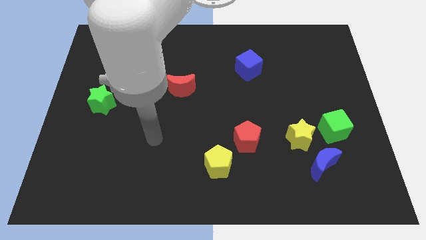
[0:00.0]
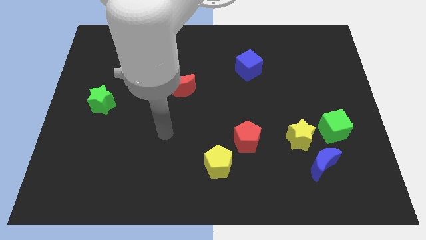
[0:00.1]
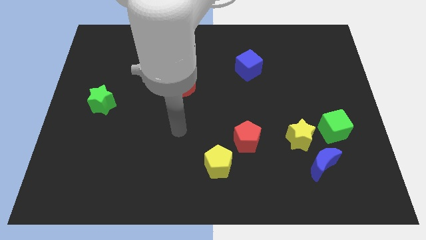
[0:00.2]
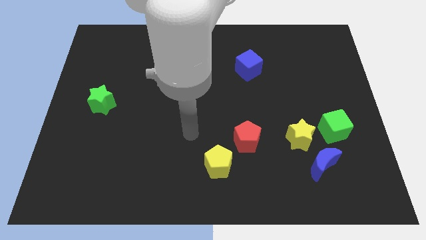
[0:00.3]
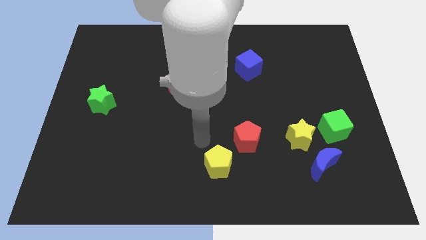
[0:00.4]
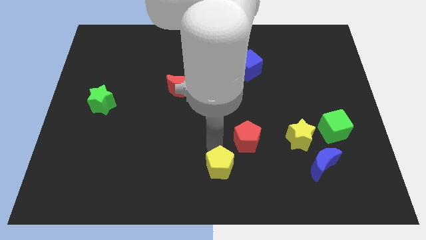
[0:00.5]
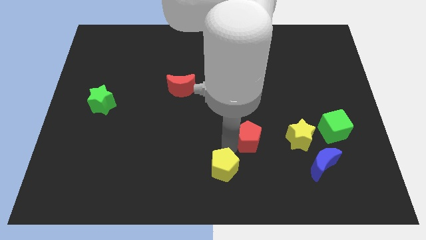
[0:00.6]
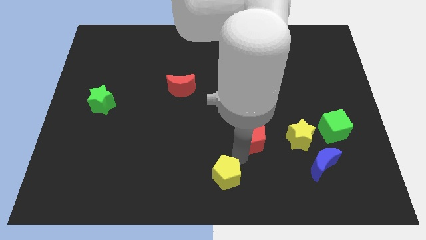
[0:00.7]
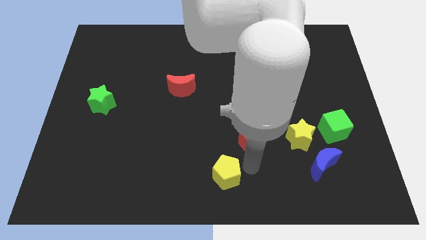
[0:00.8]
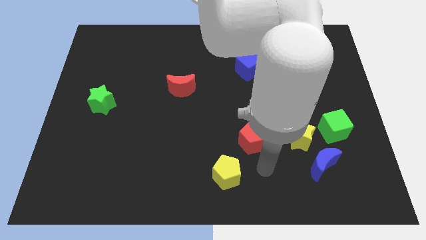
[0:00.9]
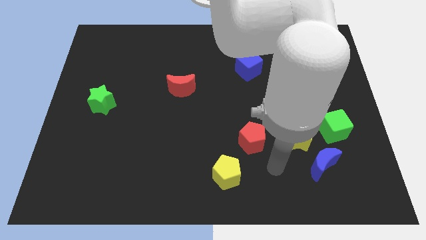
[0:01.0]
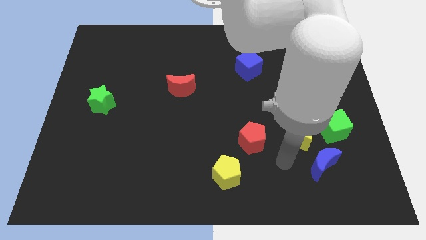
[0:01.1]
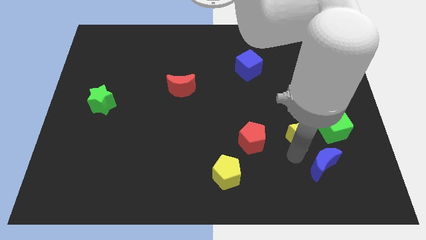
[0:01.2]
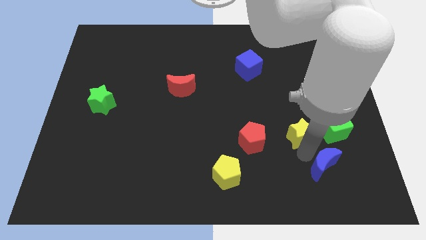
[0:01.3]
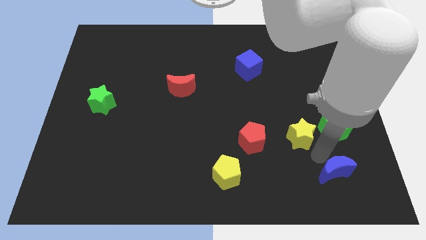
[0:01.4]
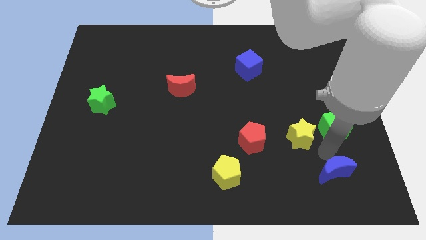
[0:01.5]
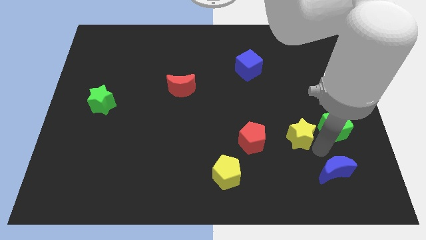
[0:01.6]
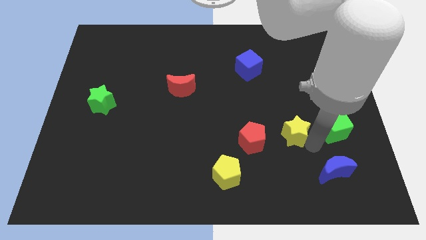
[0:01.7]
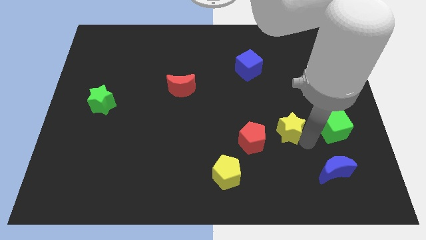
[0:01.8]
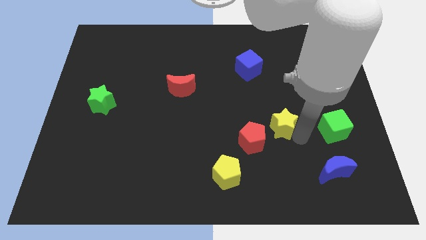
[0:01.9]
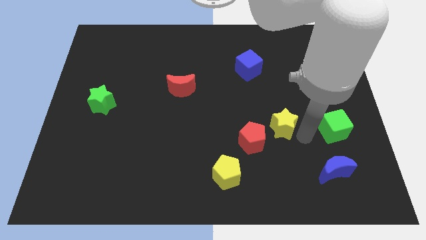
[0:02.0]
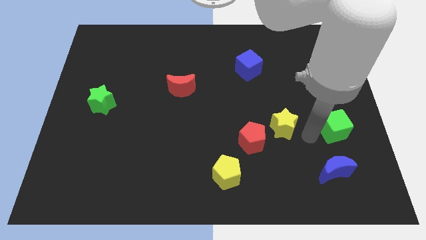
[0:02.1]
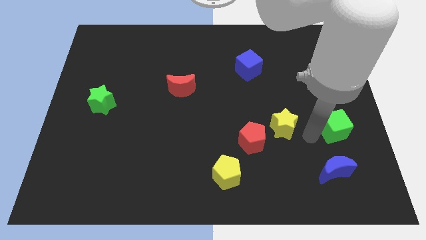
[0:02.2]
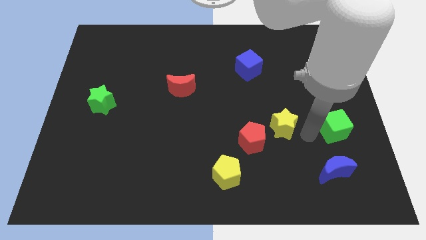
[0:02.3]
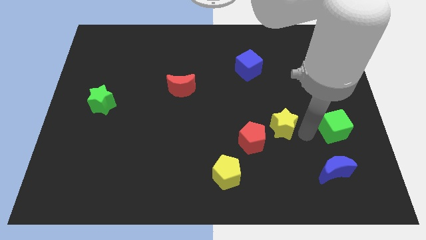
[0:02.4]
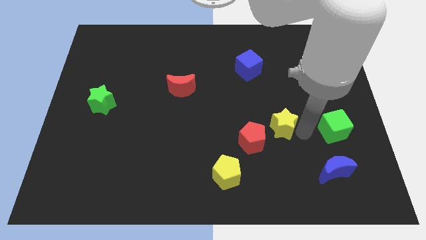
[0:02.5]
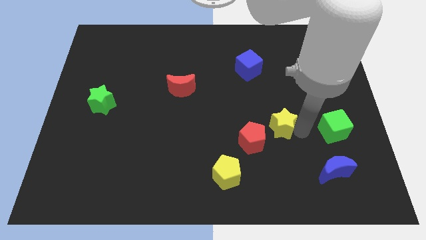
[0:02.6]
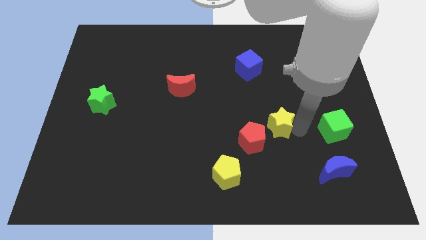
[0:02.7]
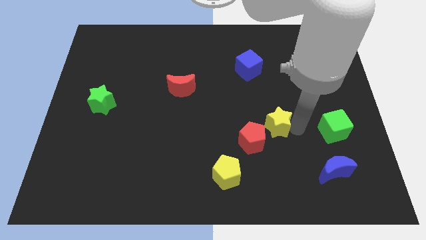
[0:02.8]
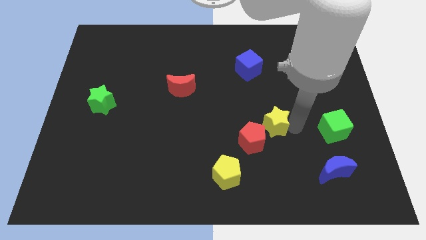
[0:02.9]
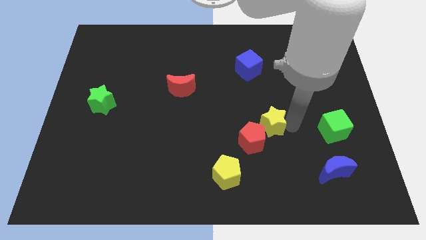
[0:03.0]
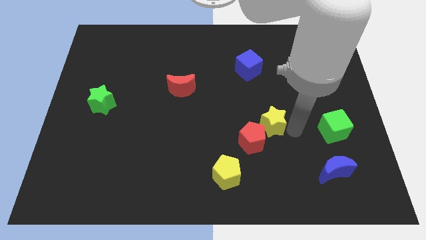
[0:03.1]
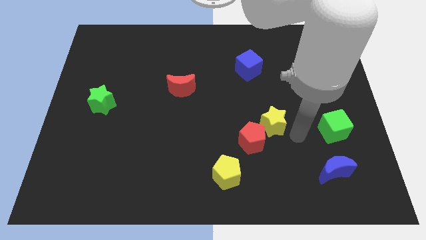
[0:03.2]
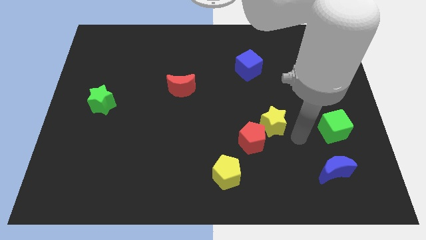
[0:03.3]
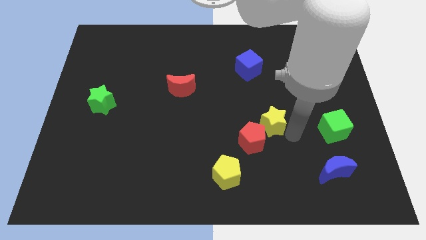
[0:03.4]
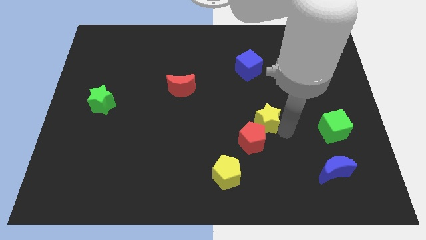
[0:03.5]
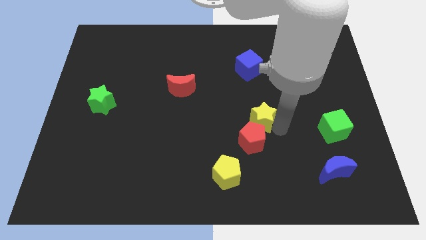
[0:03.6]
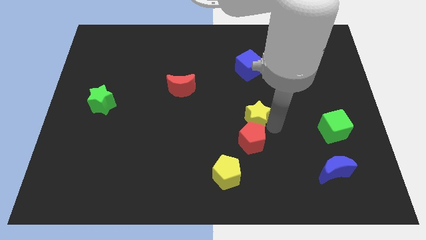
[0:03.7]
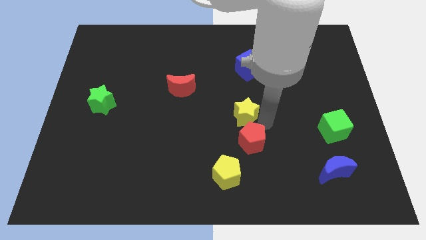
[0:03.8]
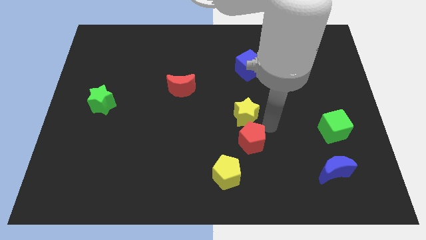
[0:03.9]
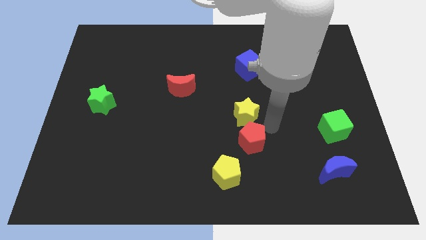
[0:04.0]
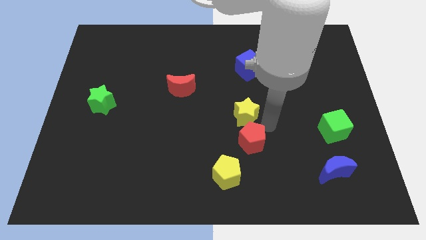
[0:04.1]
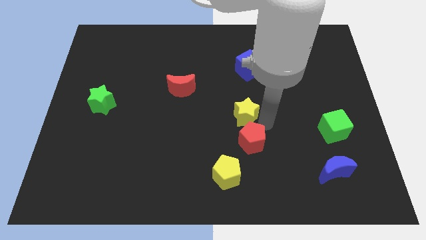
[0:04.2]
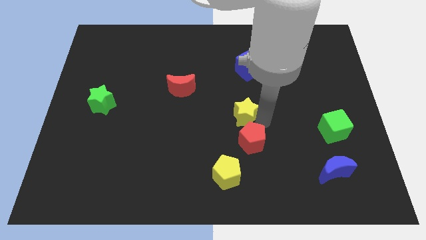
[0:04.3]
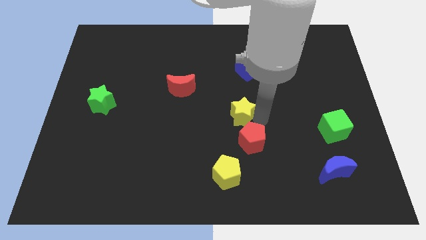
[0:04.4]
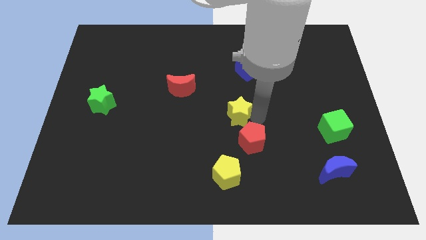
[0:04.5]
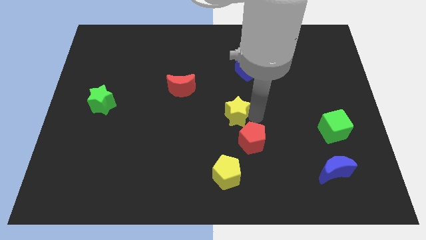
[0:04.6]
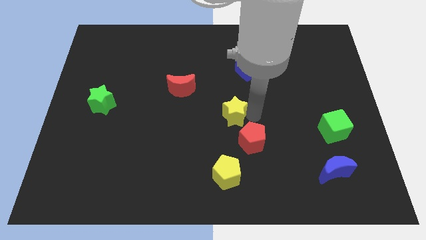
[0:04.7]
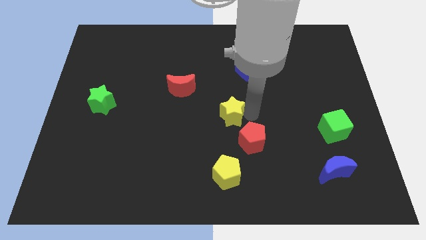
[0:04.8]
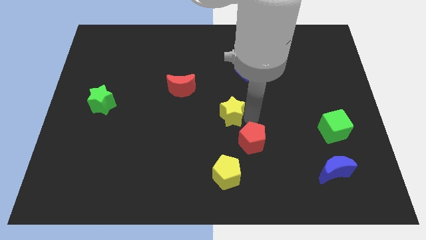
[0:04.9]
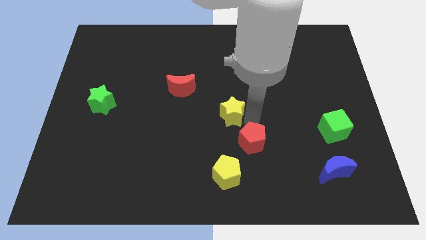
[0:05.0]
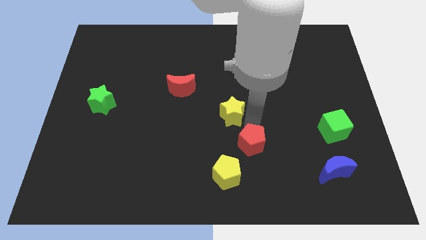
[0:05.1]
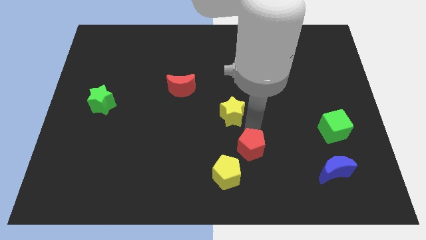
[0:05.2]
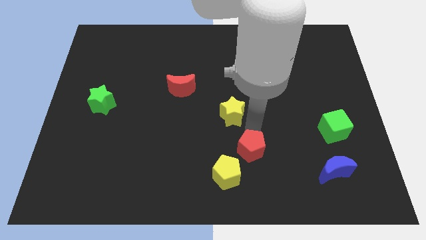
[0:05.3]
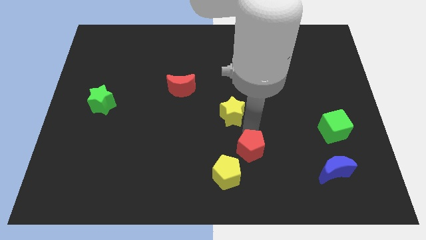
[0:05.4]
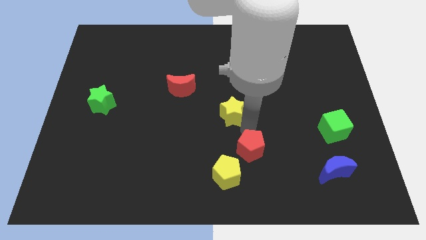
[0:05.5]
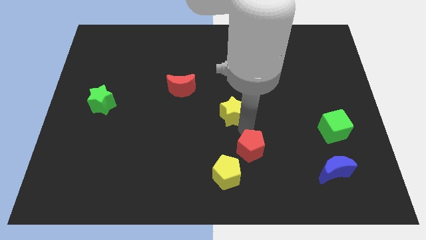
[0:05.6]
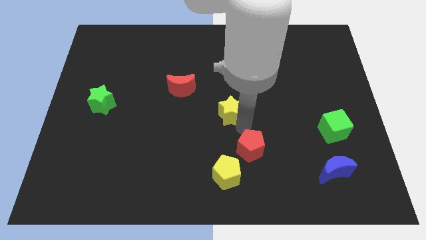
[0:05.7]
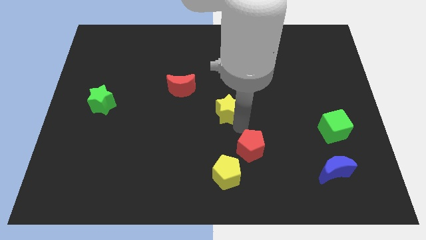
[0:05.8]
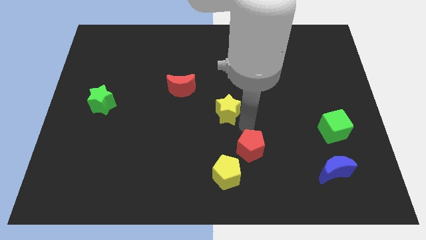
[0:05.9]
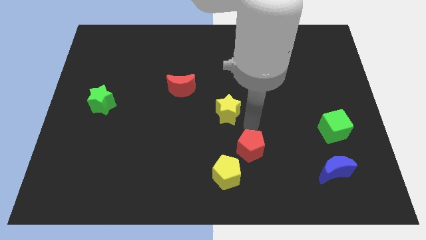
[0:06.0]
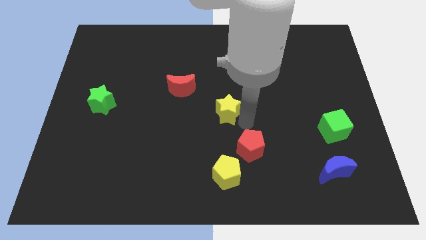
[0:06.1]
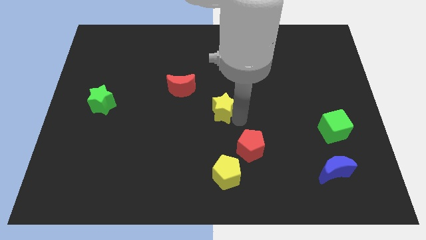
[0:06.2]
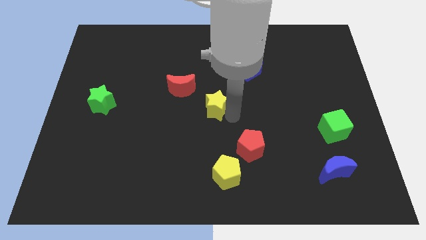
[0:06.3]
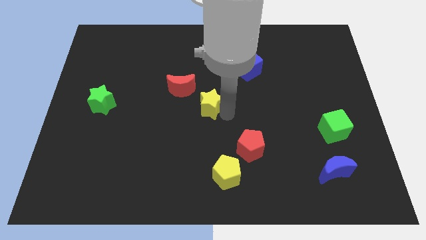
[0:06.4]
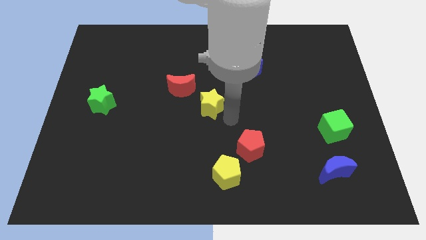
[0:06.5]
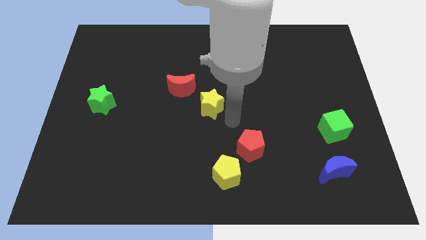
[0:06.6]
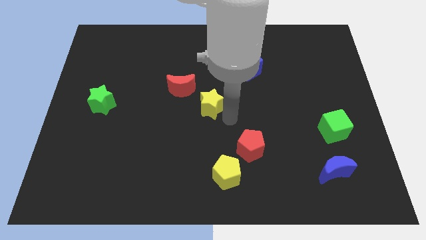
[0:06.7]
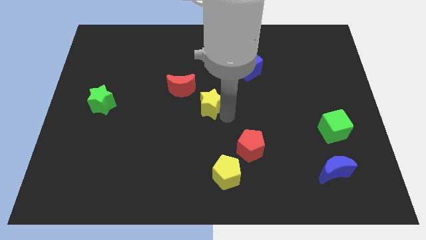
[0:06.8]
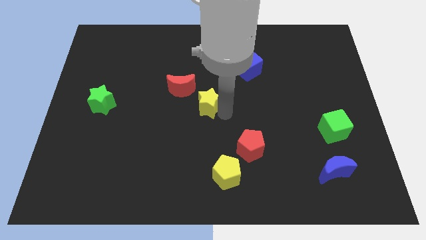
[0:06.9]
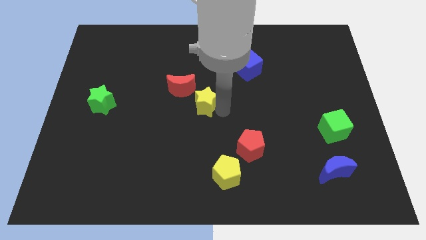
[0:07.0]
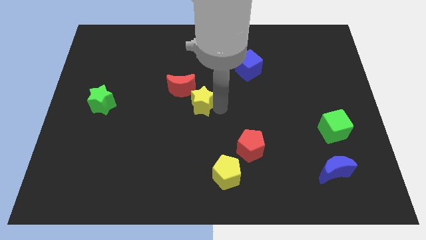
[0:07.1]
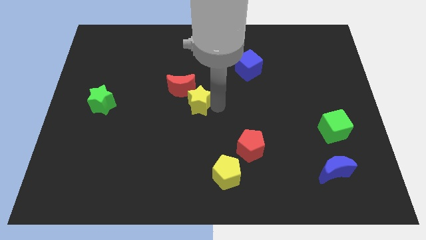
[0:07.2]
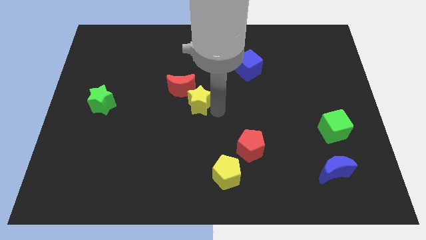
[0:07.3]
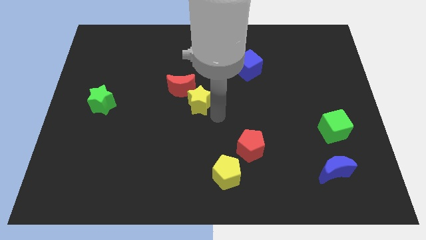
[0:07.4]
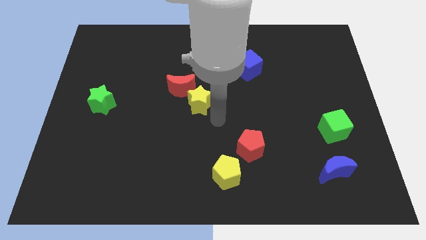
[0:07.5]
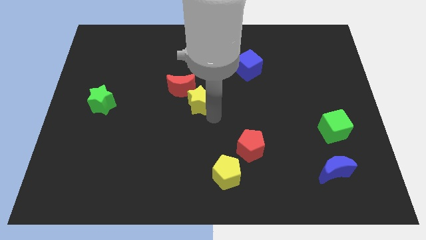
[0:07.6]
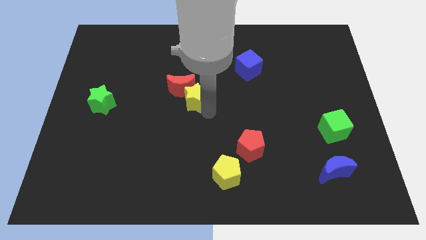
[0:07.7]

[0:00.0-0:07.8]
move the yellow star towards the red moon
